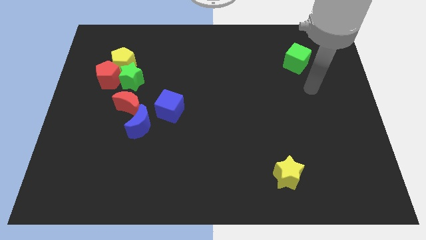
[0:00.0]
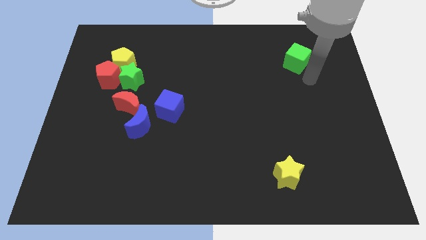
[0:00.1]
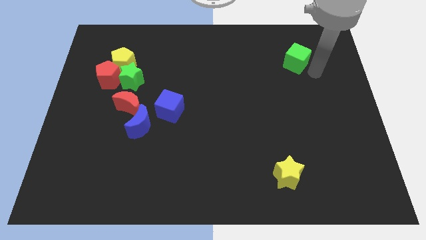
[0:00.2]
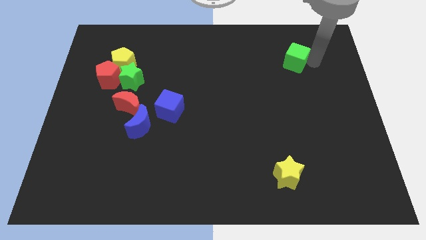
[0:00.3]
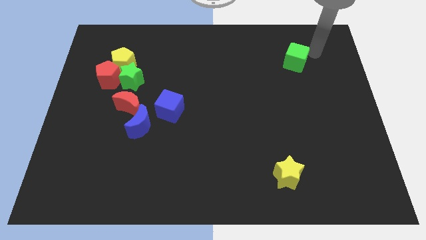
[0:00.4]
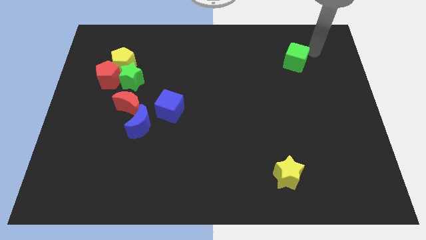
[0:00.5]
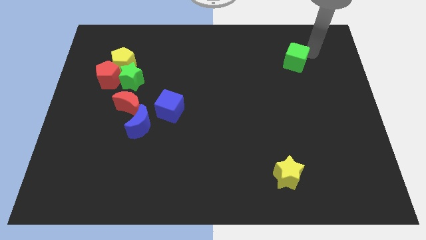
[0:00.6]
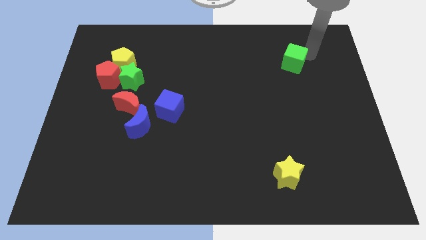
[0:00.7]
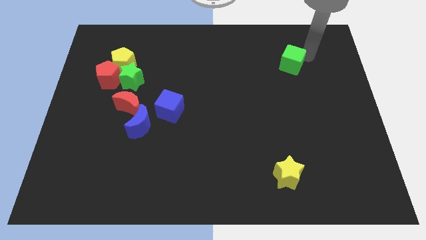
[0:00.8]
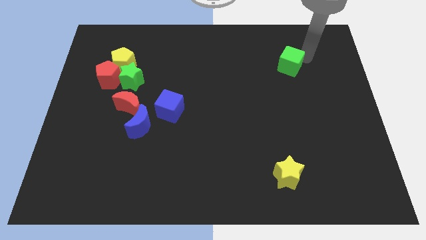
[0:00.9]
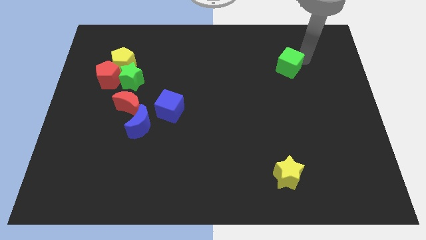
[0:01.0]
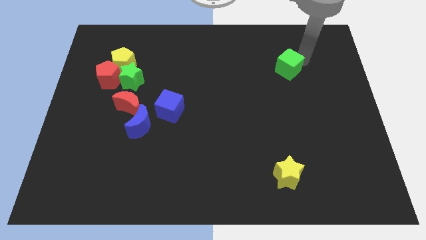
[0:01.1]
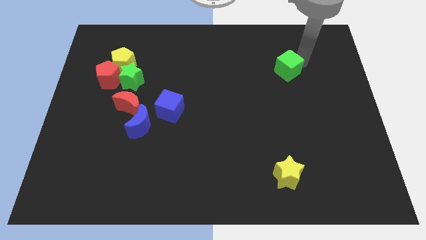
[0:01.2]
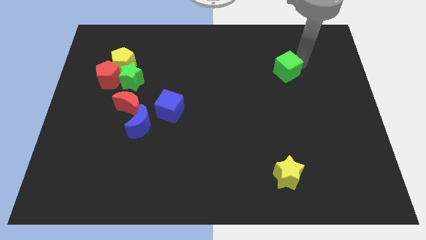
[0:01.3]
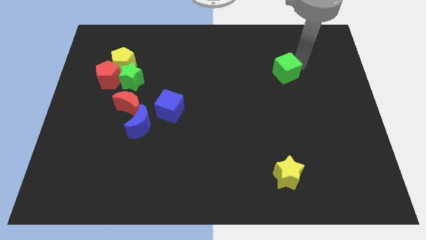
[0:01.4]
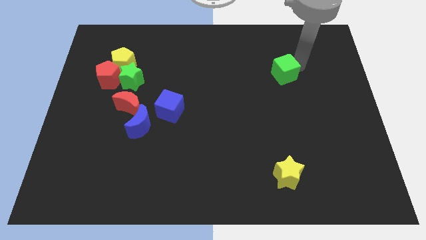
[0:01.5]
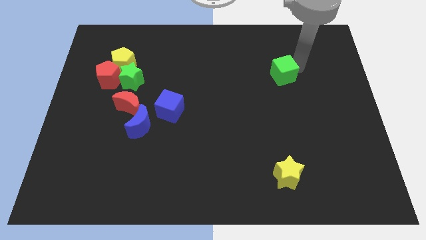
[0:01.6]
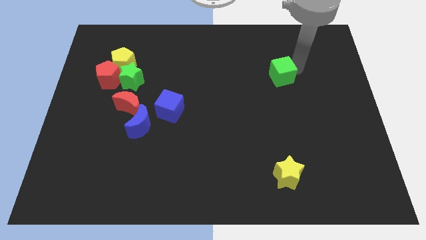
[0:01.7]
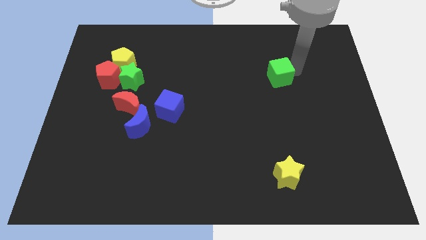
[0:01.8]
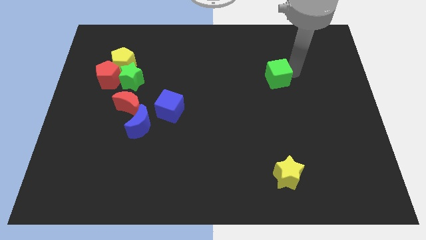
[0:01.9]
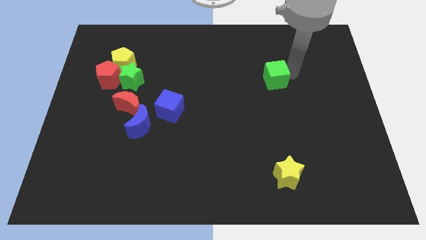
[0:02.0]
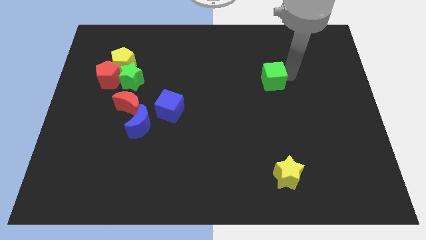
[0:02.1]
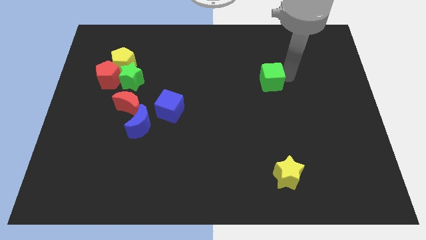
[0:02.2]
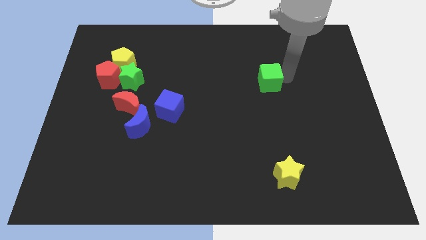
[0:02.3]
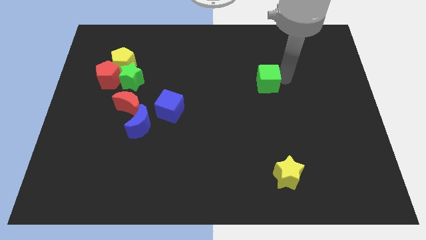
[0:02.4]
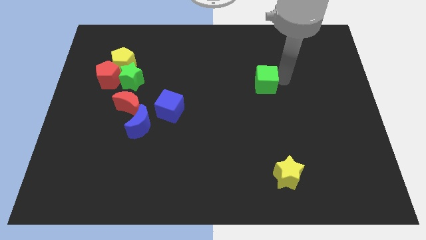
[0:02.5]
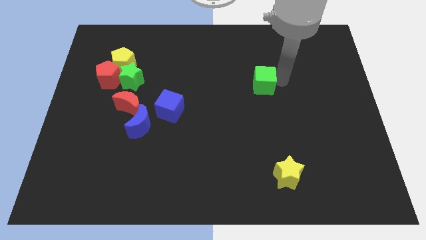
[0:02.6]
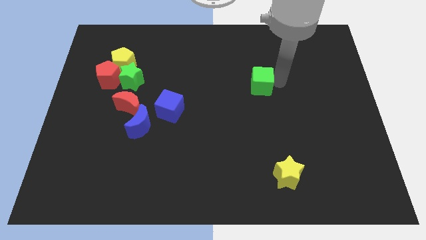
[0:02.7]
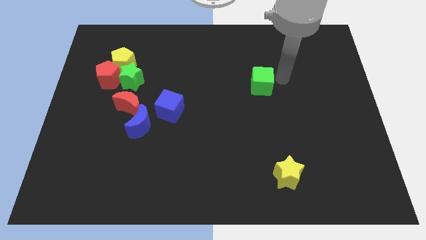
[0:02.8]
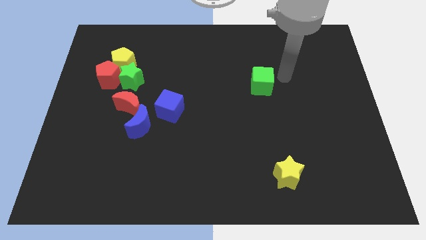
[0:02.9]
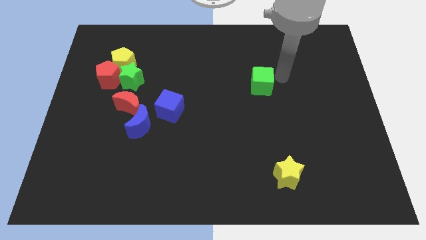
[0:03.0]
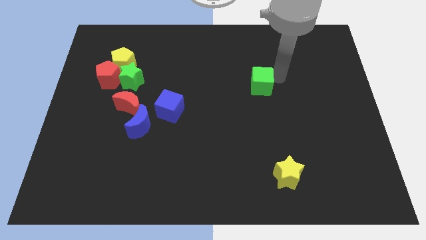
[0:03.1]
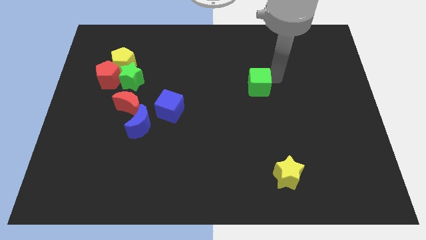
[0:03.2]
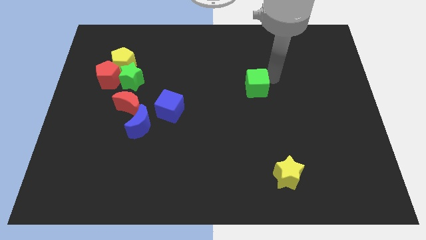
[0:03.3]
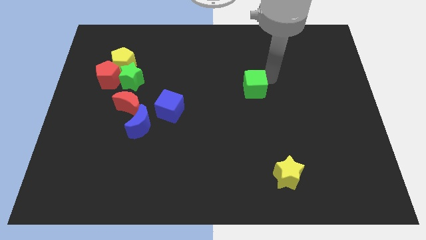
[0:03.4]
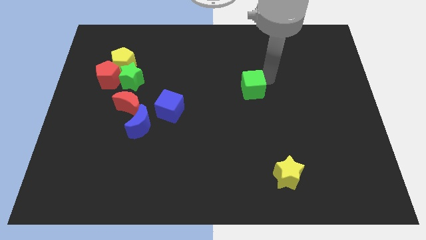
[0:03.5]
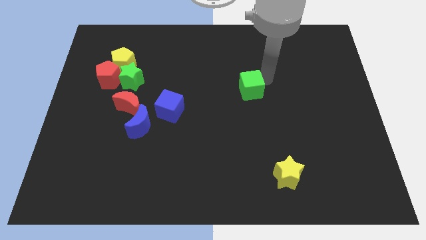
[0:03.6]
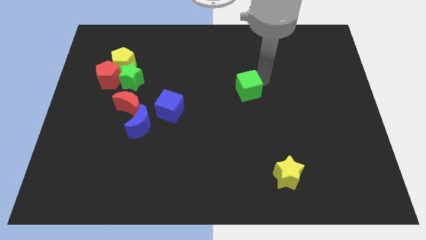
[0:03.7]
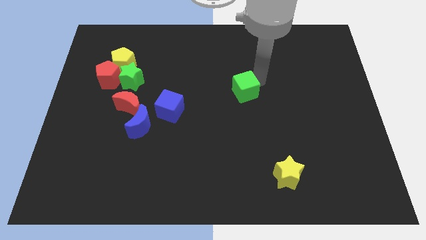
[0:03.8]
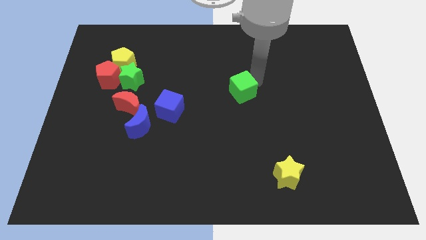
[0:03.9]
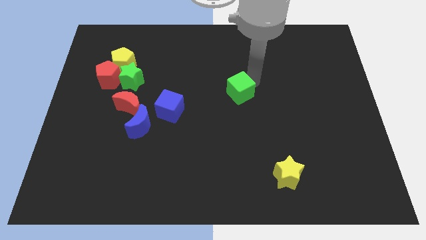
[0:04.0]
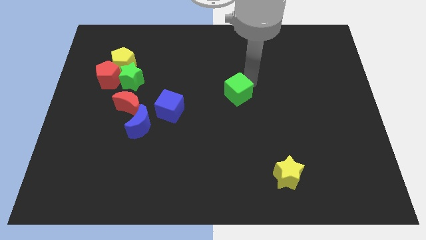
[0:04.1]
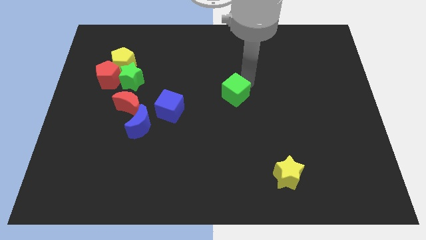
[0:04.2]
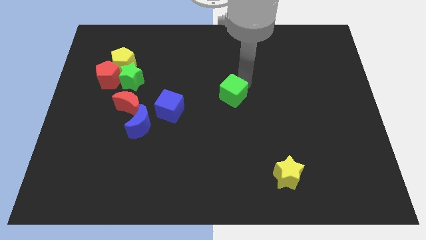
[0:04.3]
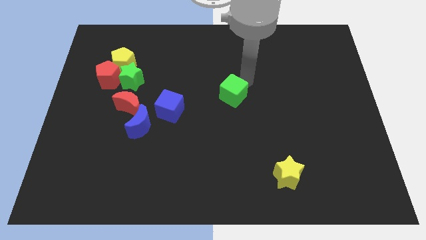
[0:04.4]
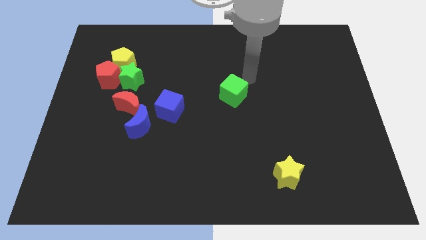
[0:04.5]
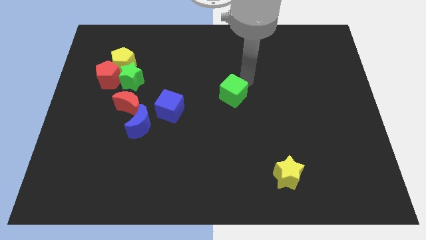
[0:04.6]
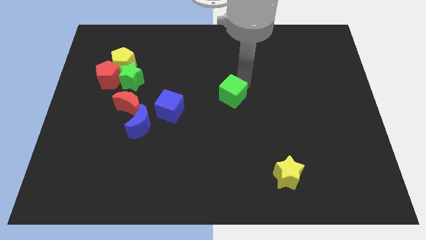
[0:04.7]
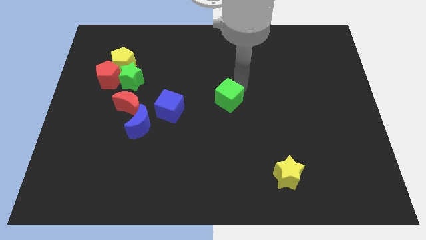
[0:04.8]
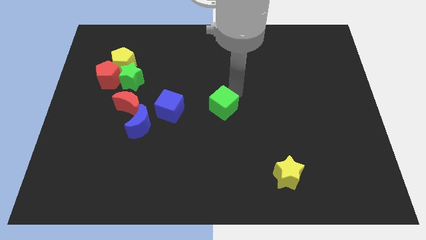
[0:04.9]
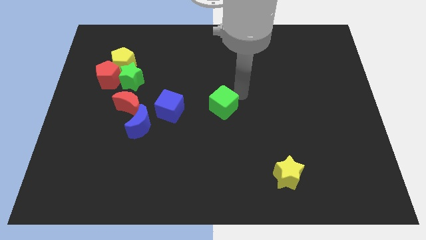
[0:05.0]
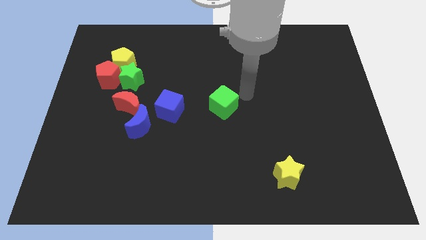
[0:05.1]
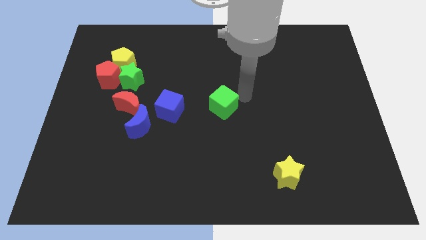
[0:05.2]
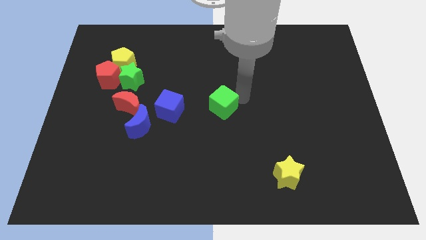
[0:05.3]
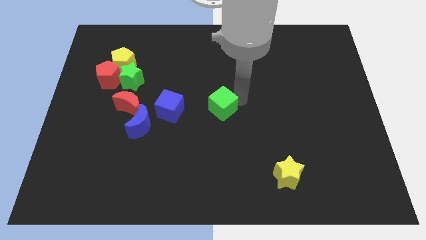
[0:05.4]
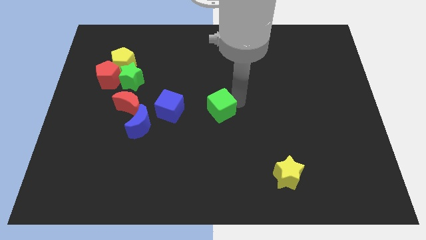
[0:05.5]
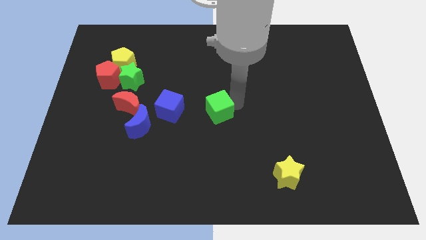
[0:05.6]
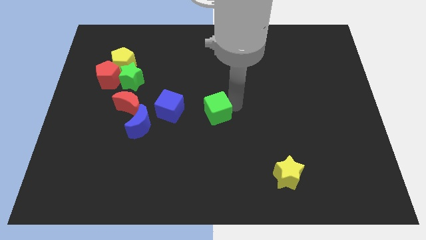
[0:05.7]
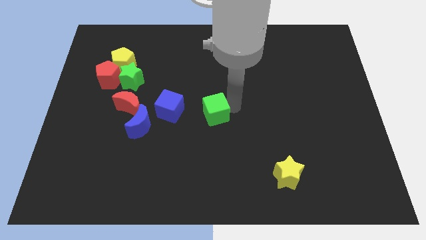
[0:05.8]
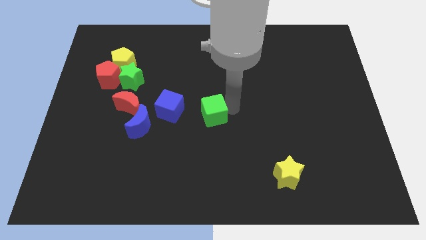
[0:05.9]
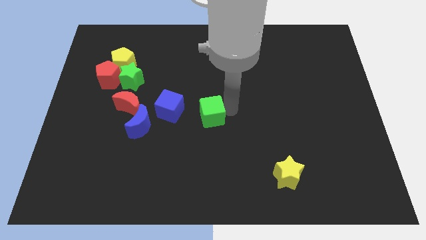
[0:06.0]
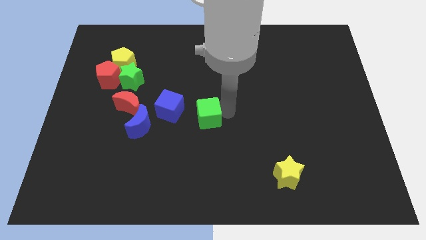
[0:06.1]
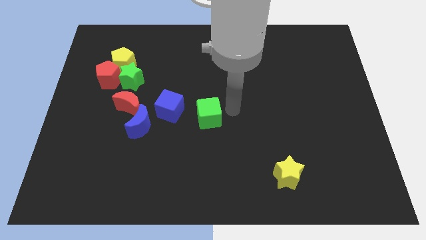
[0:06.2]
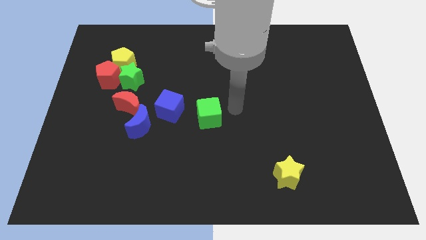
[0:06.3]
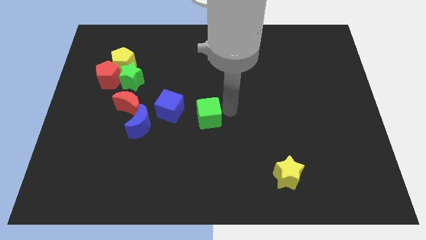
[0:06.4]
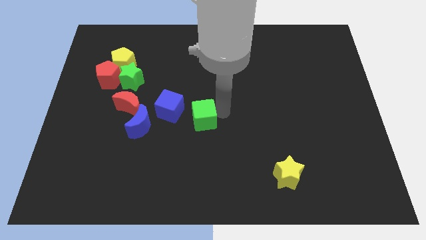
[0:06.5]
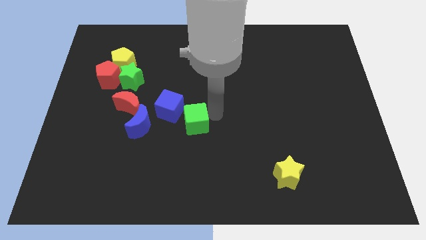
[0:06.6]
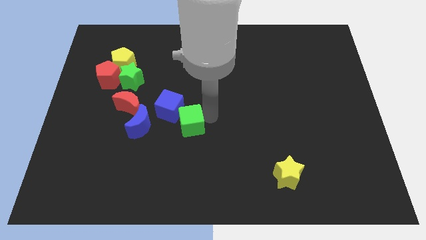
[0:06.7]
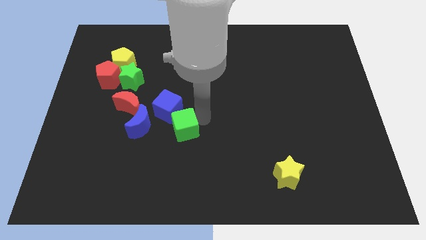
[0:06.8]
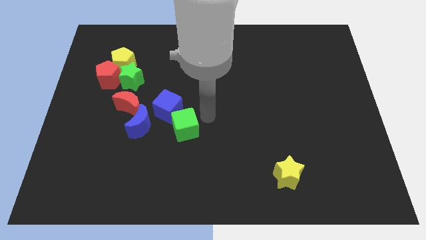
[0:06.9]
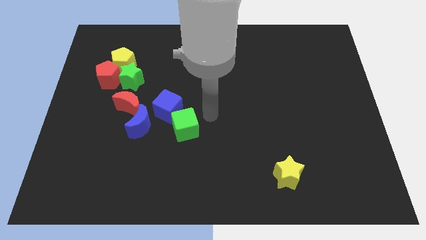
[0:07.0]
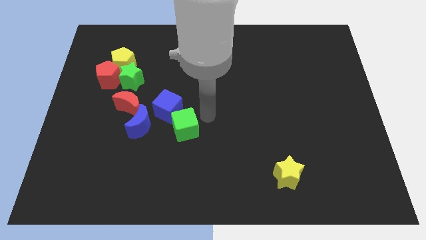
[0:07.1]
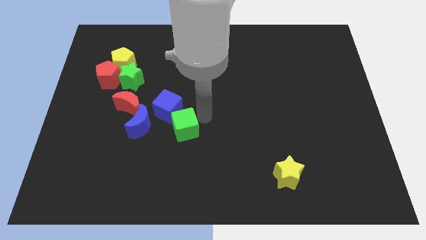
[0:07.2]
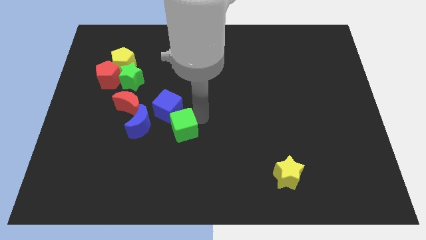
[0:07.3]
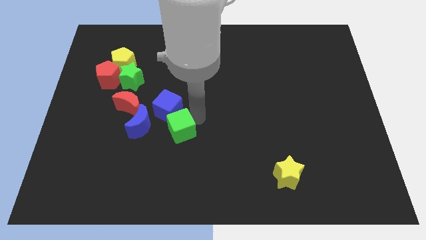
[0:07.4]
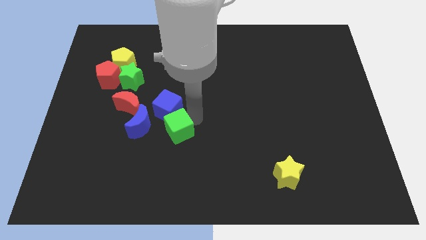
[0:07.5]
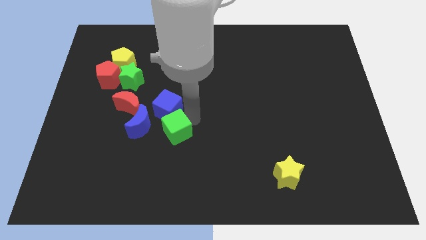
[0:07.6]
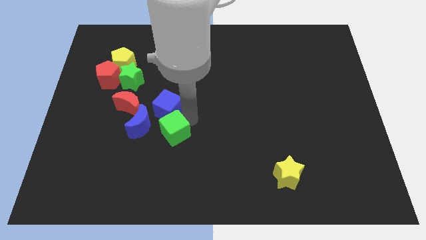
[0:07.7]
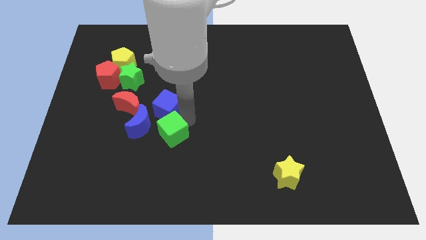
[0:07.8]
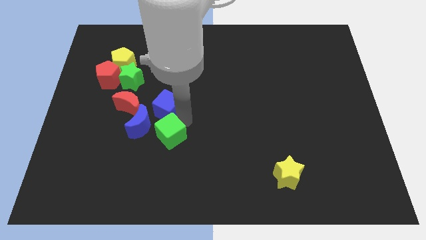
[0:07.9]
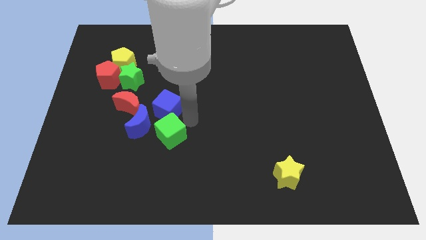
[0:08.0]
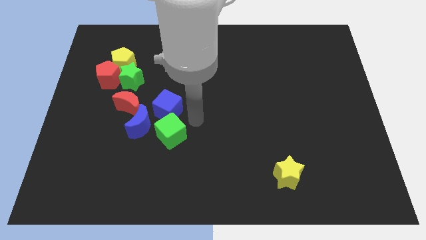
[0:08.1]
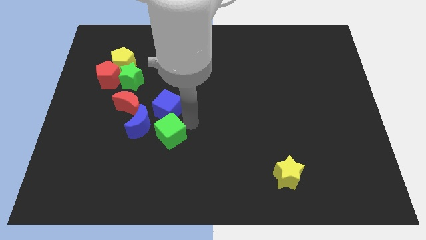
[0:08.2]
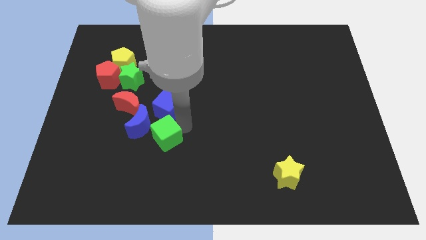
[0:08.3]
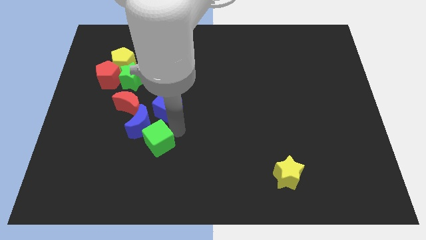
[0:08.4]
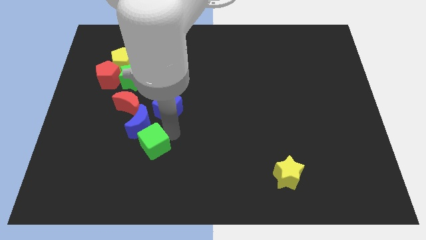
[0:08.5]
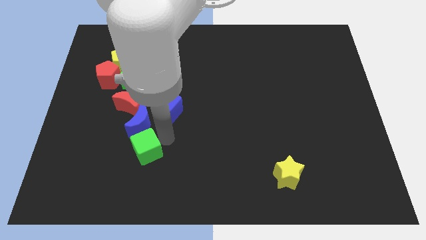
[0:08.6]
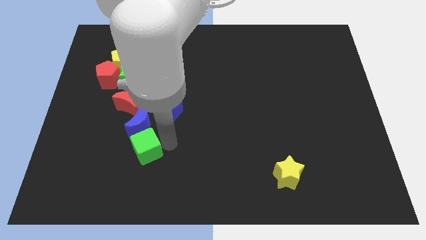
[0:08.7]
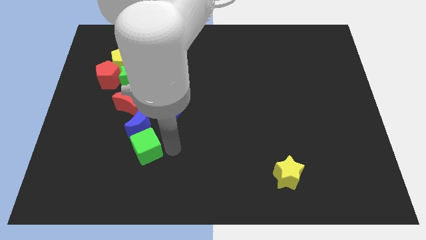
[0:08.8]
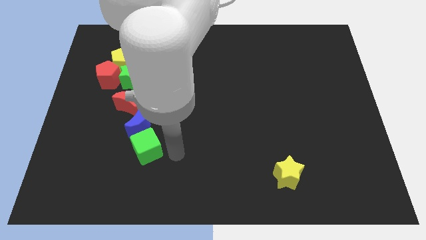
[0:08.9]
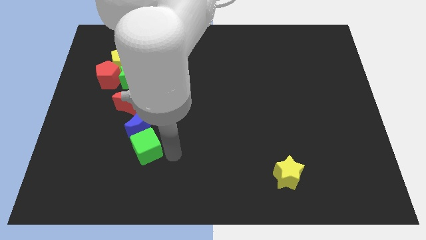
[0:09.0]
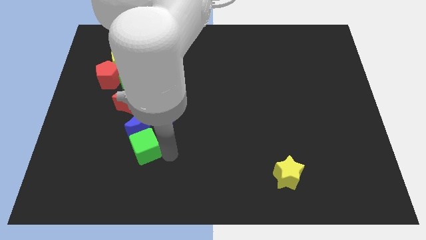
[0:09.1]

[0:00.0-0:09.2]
put the green cube to the bottom side of the red moon
